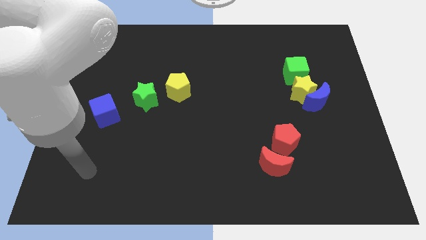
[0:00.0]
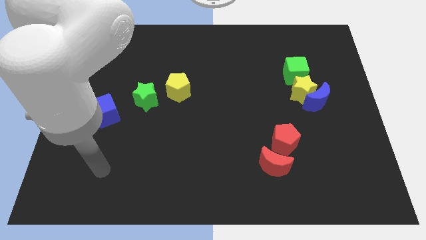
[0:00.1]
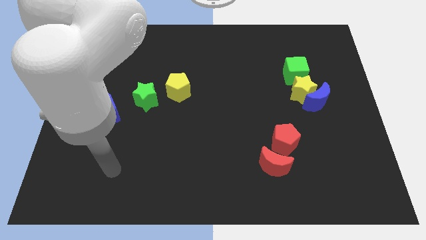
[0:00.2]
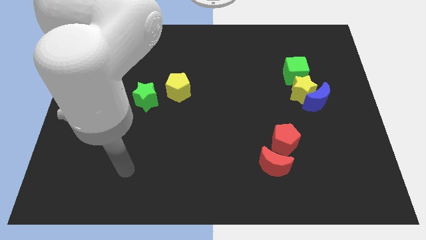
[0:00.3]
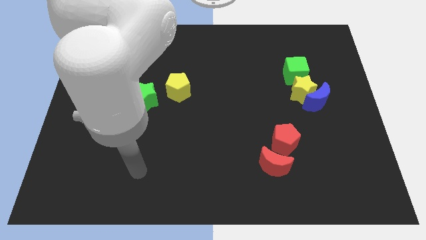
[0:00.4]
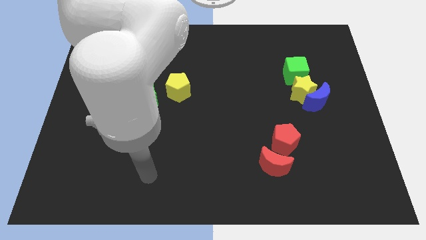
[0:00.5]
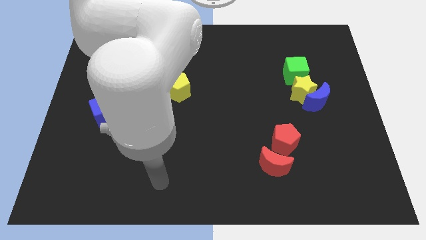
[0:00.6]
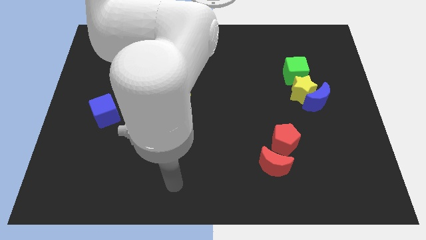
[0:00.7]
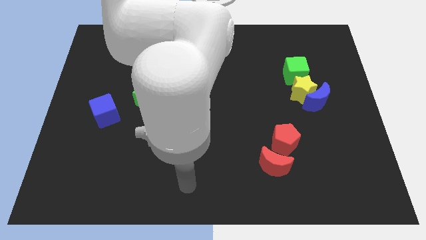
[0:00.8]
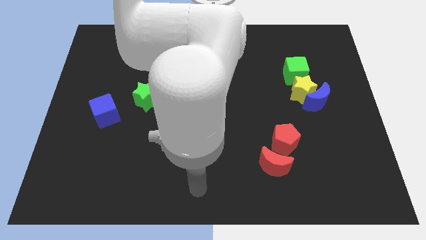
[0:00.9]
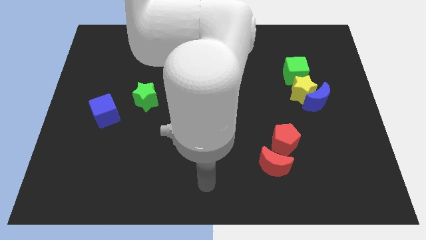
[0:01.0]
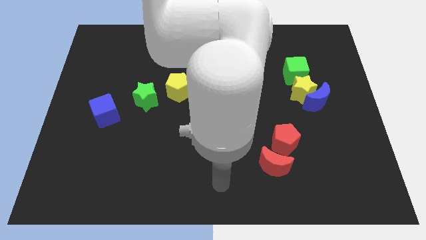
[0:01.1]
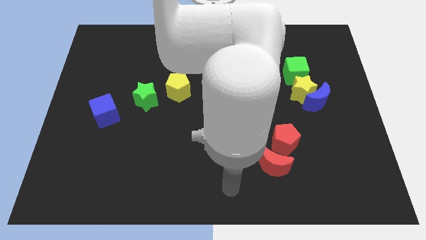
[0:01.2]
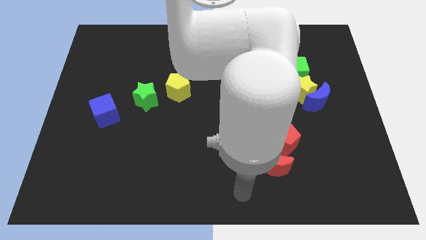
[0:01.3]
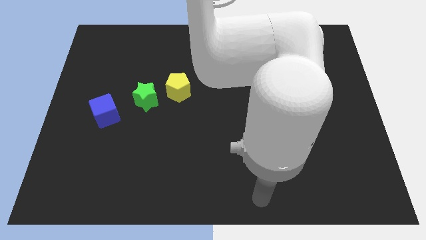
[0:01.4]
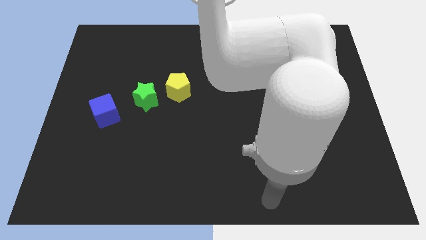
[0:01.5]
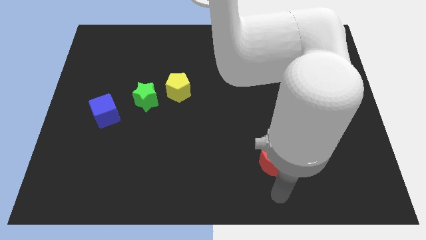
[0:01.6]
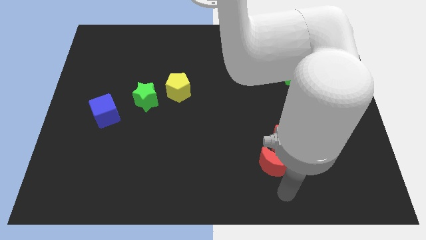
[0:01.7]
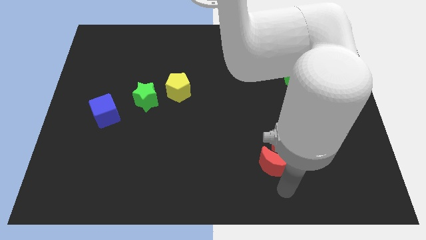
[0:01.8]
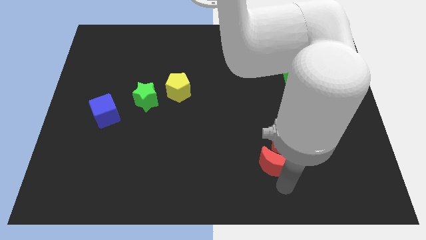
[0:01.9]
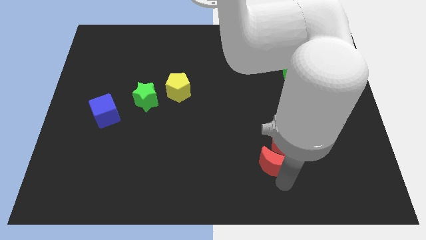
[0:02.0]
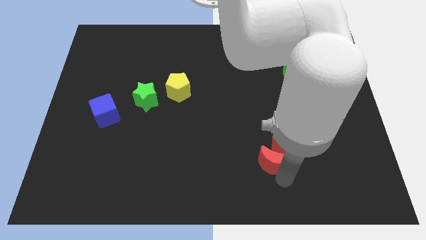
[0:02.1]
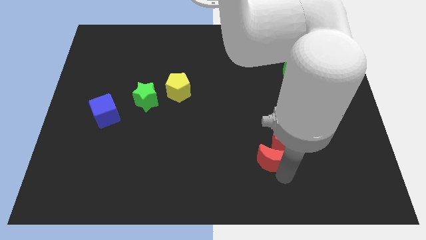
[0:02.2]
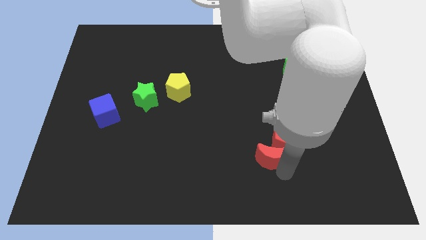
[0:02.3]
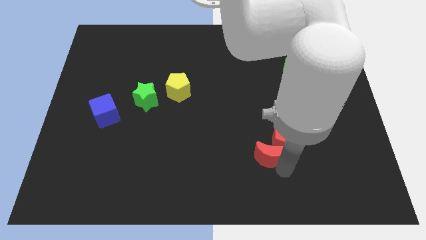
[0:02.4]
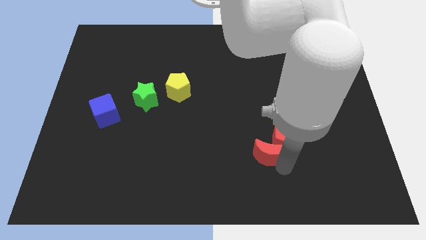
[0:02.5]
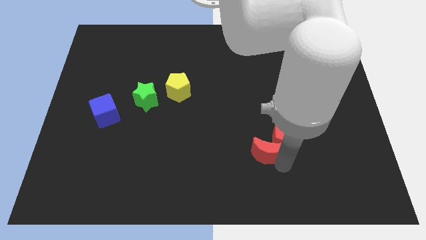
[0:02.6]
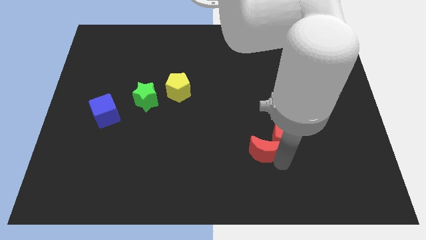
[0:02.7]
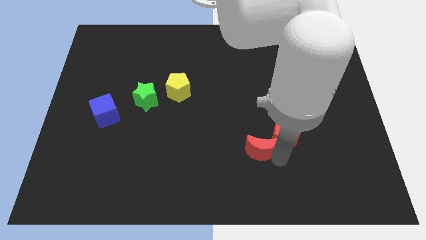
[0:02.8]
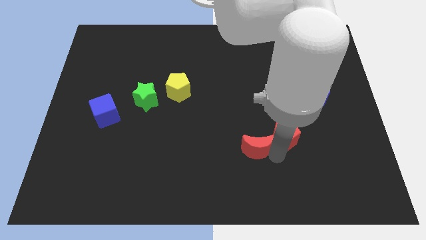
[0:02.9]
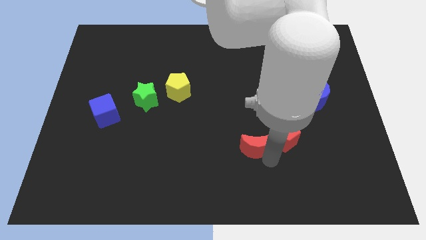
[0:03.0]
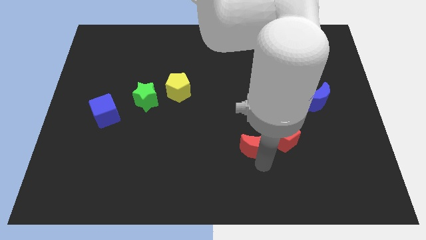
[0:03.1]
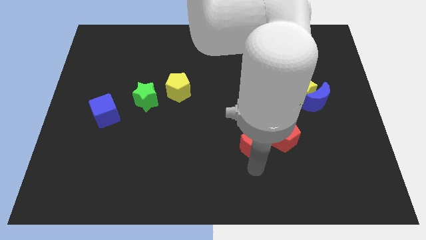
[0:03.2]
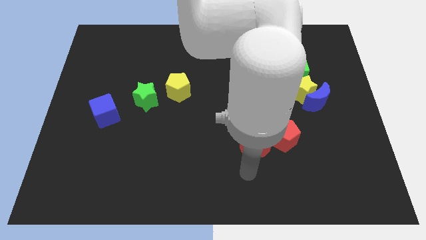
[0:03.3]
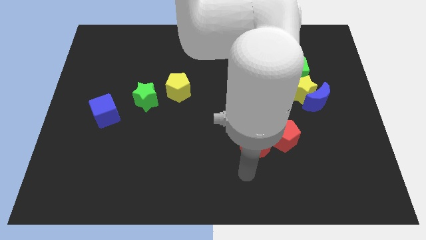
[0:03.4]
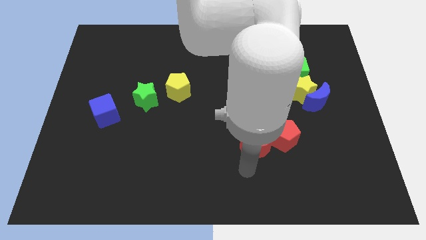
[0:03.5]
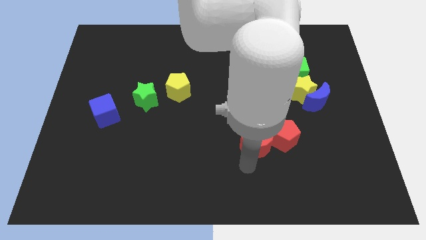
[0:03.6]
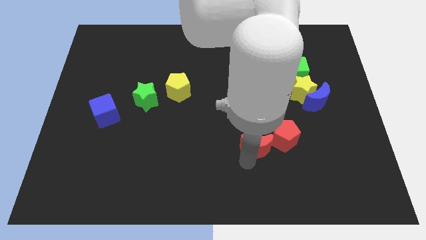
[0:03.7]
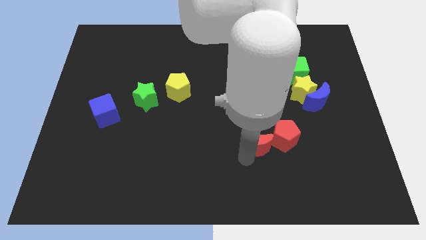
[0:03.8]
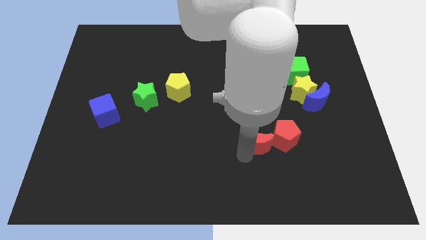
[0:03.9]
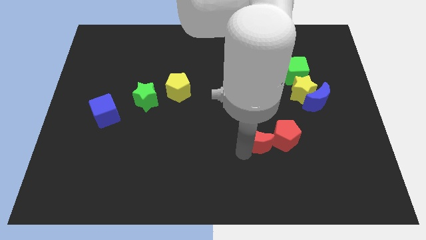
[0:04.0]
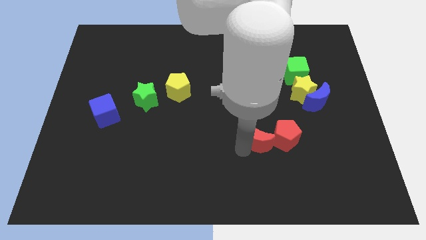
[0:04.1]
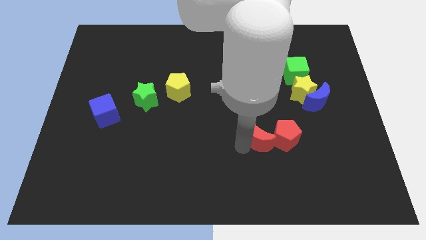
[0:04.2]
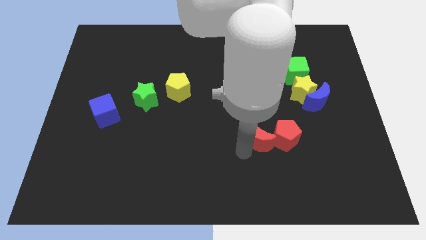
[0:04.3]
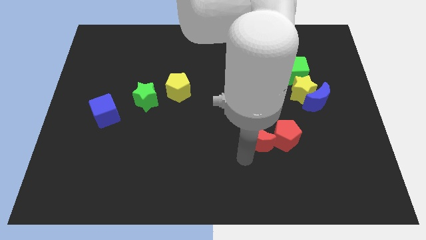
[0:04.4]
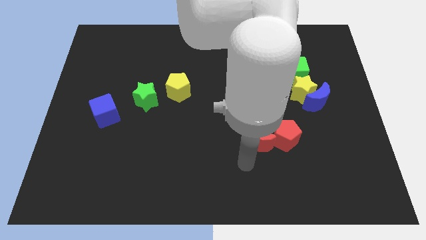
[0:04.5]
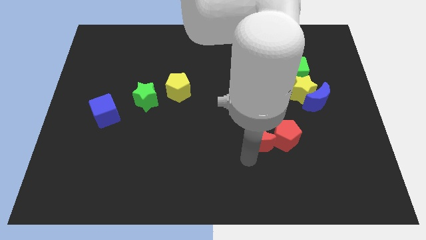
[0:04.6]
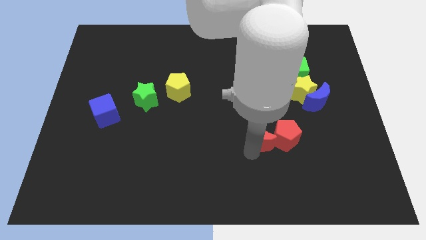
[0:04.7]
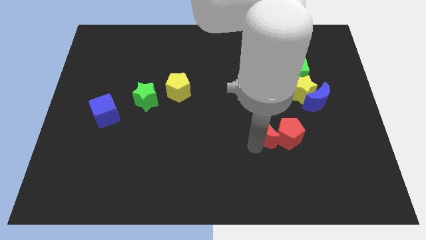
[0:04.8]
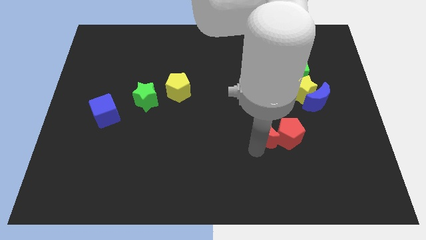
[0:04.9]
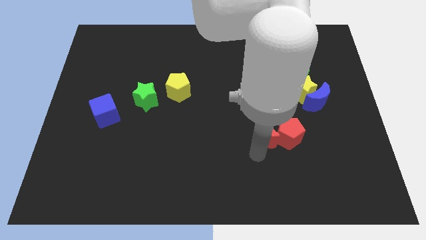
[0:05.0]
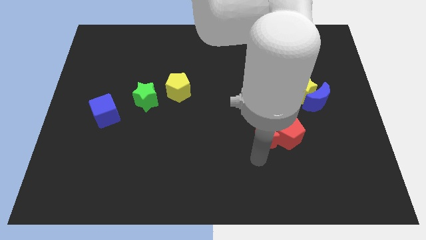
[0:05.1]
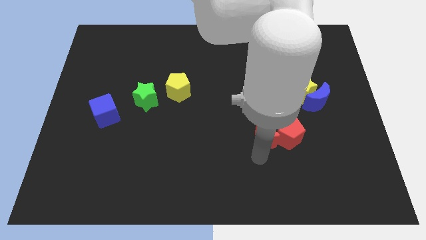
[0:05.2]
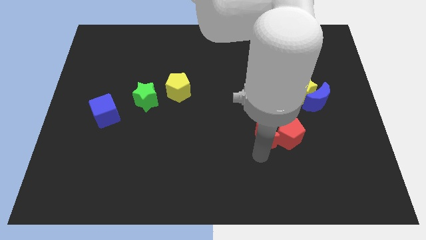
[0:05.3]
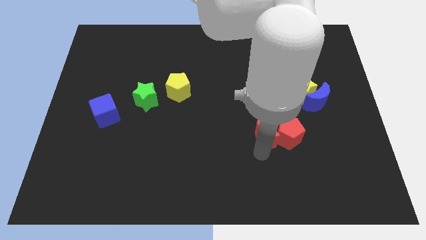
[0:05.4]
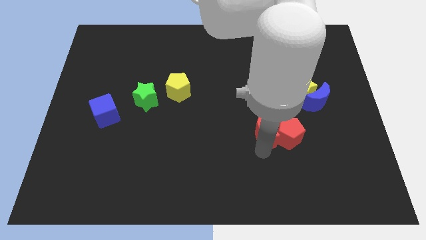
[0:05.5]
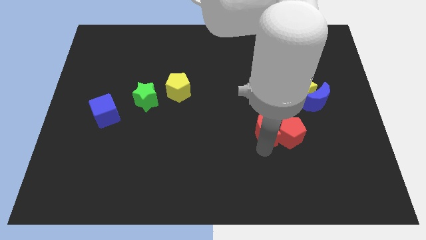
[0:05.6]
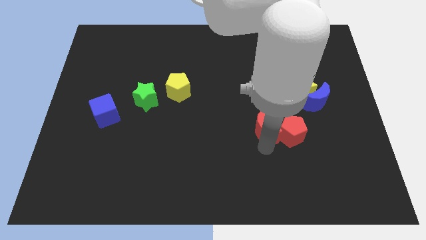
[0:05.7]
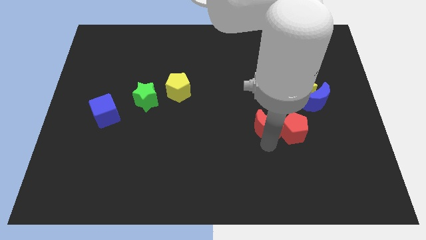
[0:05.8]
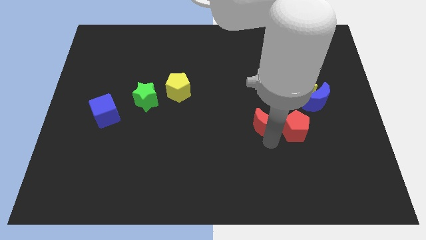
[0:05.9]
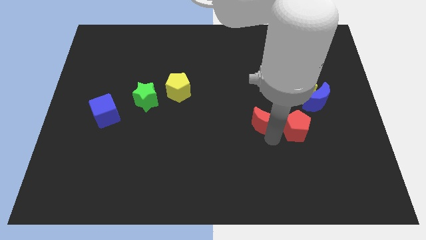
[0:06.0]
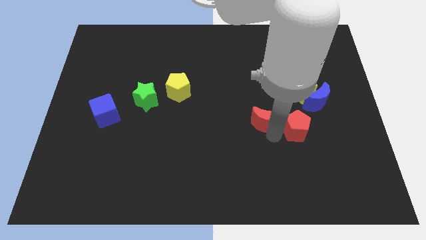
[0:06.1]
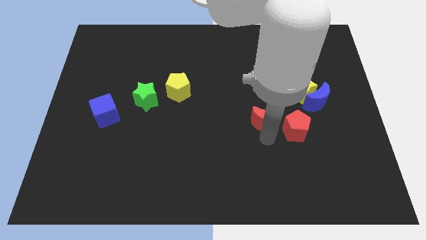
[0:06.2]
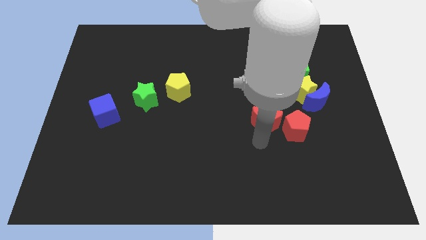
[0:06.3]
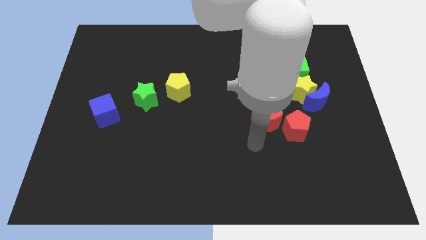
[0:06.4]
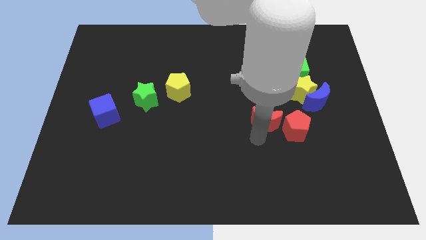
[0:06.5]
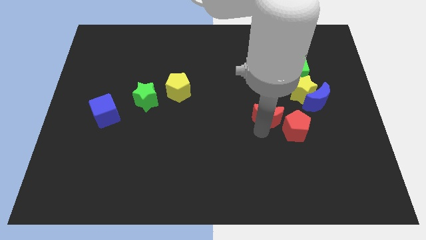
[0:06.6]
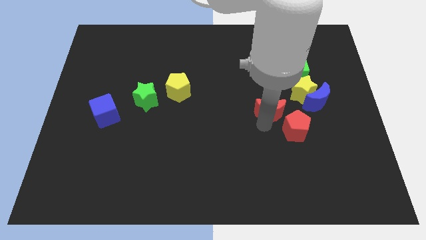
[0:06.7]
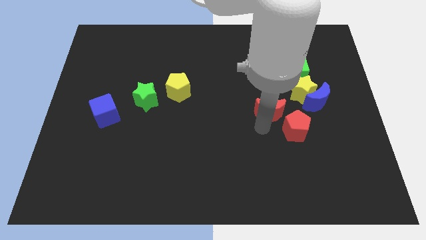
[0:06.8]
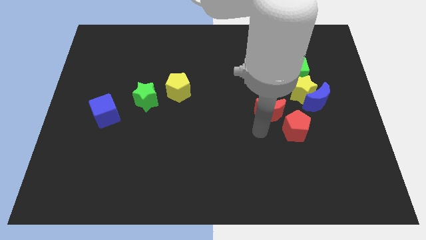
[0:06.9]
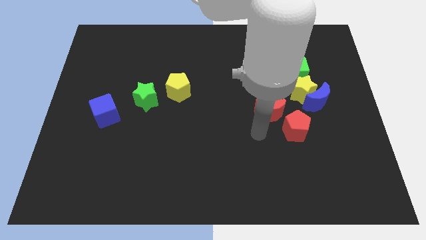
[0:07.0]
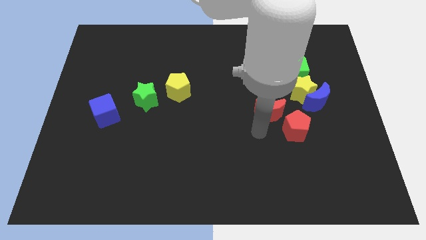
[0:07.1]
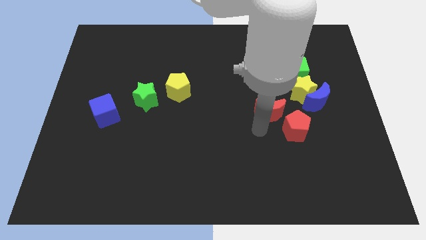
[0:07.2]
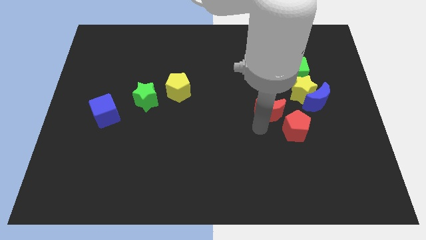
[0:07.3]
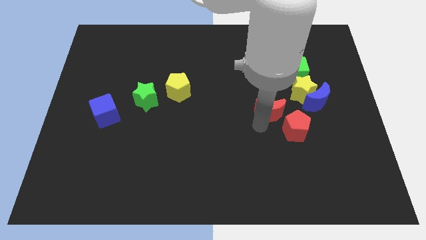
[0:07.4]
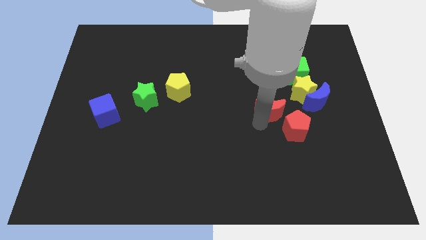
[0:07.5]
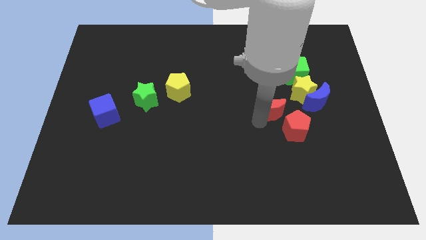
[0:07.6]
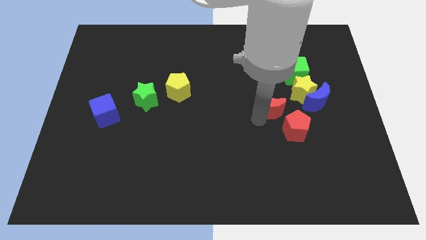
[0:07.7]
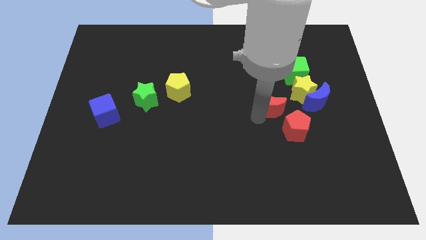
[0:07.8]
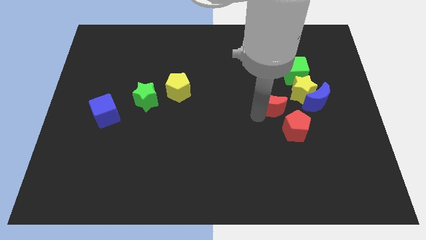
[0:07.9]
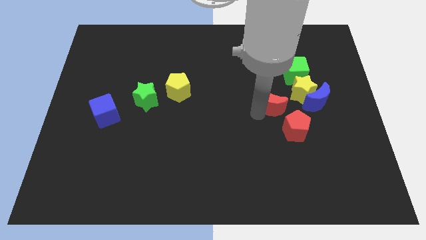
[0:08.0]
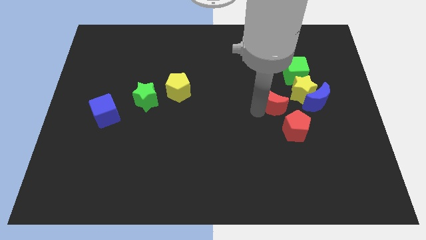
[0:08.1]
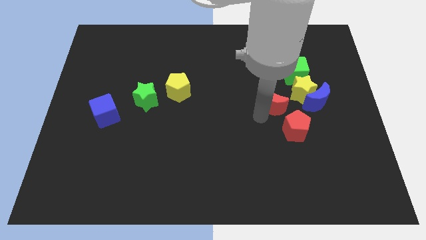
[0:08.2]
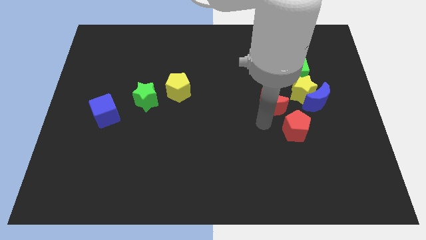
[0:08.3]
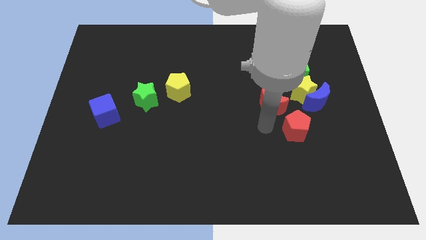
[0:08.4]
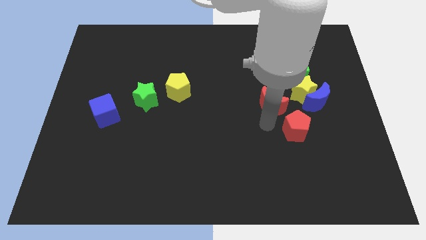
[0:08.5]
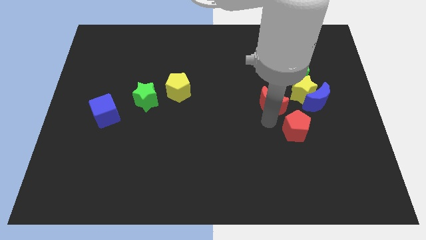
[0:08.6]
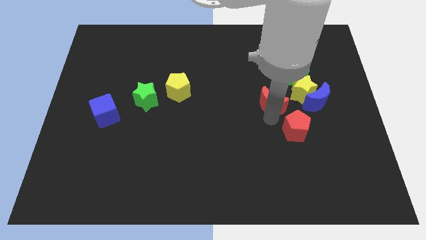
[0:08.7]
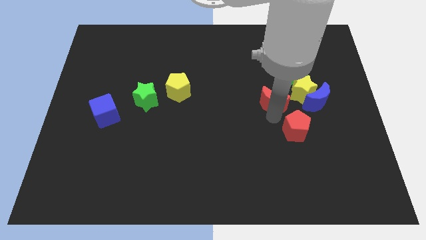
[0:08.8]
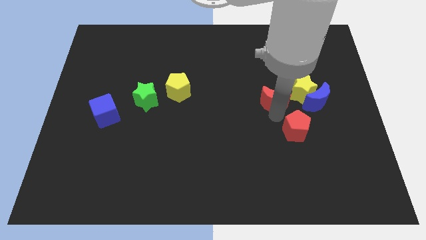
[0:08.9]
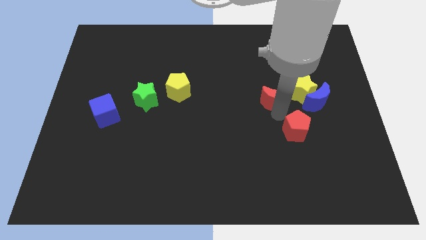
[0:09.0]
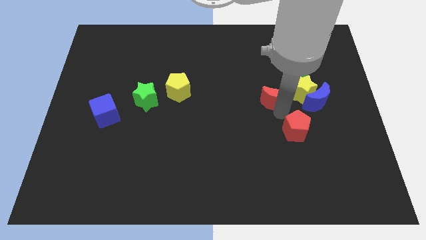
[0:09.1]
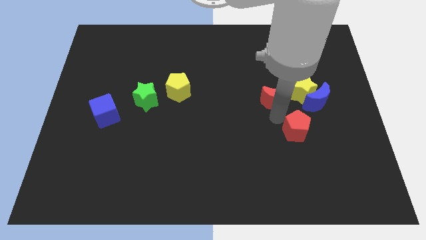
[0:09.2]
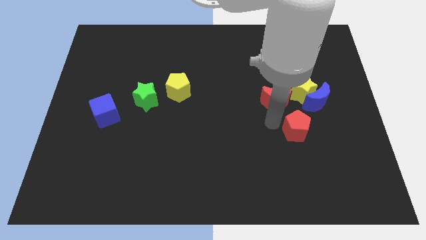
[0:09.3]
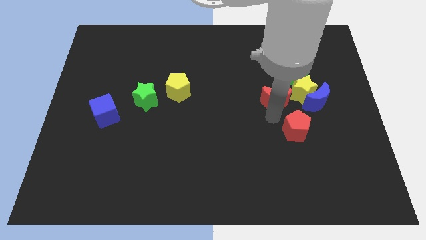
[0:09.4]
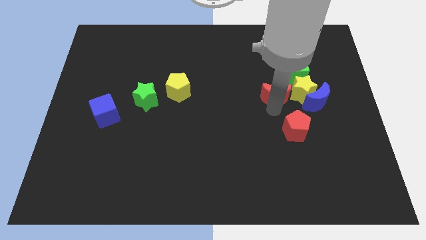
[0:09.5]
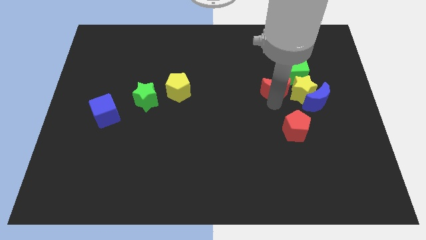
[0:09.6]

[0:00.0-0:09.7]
move the red moon to the top left of the yellow star
